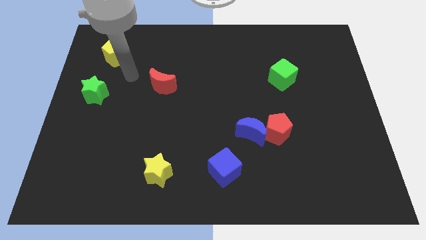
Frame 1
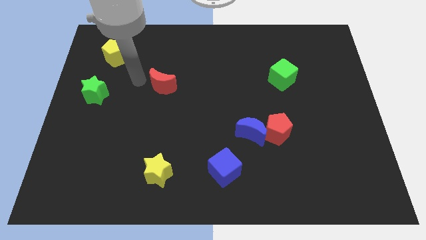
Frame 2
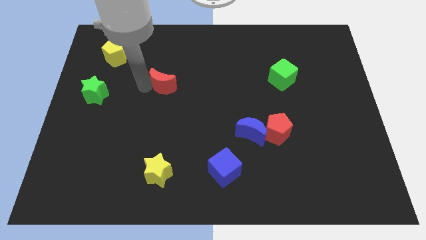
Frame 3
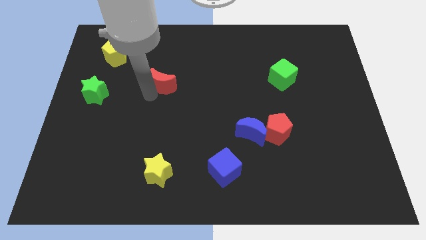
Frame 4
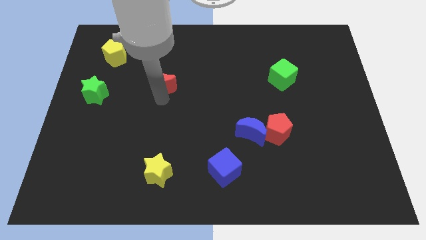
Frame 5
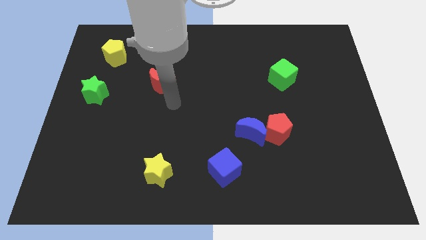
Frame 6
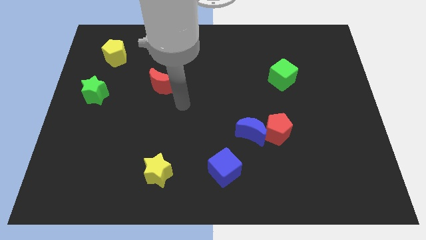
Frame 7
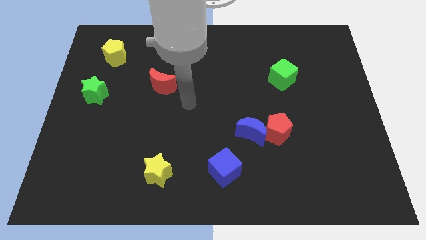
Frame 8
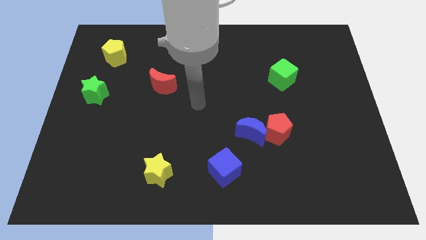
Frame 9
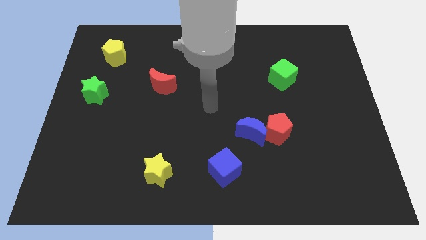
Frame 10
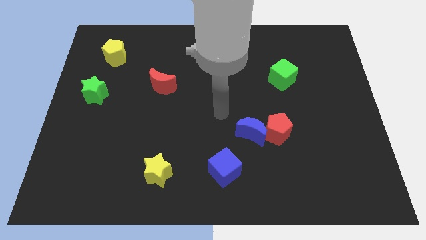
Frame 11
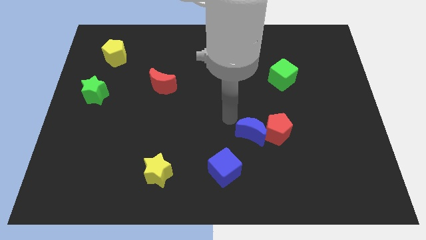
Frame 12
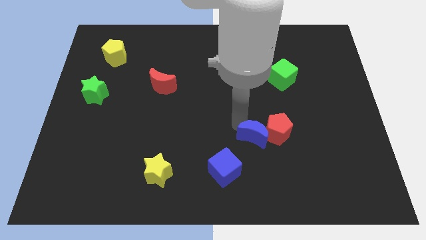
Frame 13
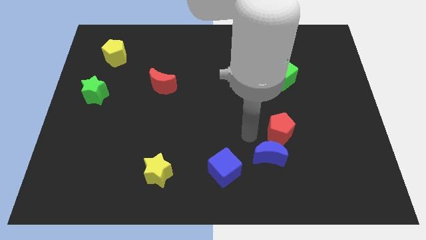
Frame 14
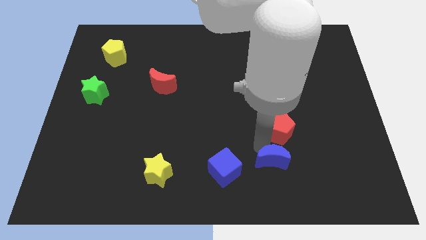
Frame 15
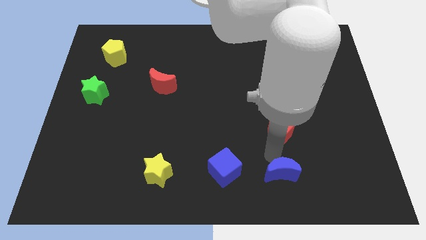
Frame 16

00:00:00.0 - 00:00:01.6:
separate the red pentagon from the blue moon

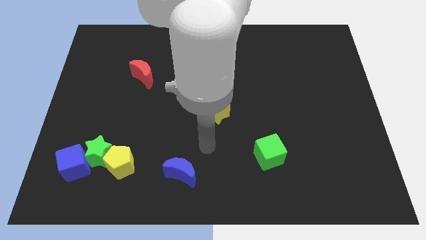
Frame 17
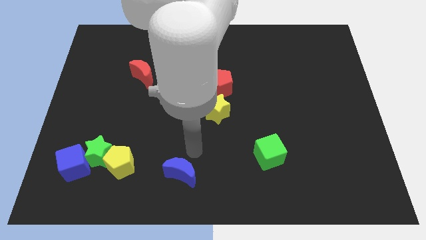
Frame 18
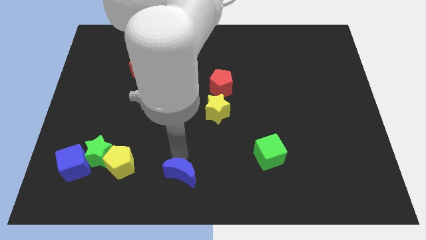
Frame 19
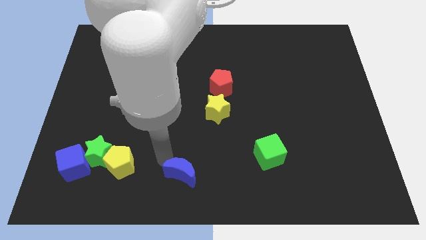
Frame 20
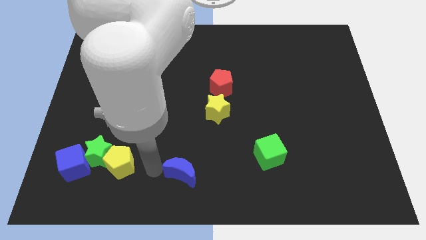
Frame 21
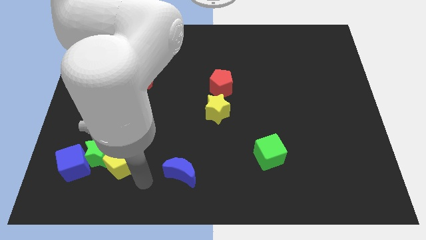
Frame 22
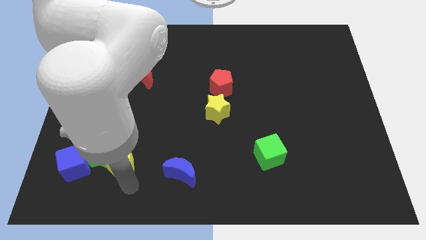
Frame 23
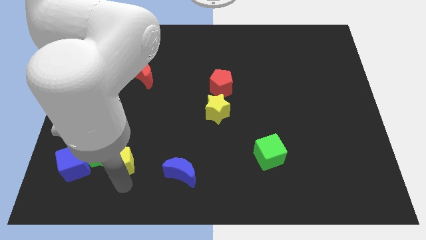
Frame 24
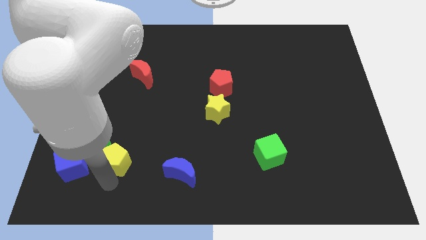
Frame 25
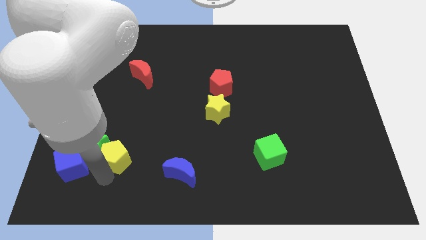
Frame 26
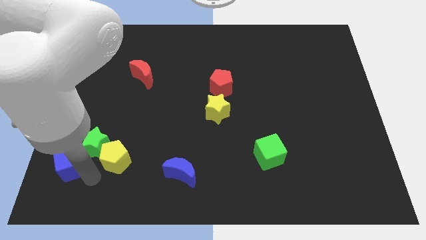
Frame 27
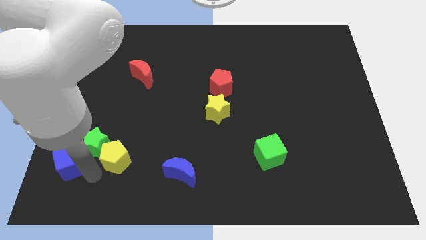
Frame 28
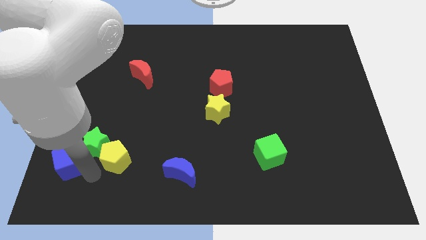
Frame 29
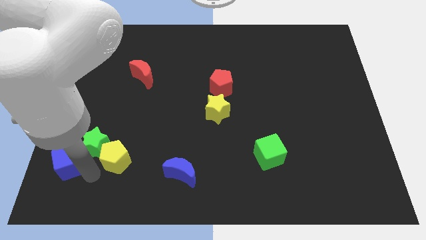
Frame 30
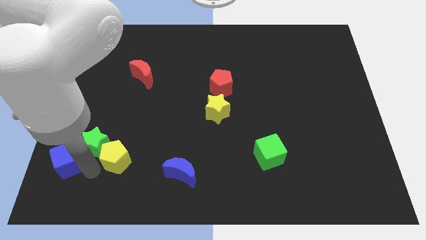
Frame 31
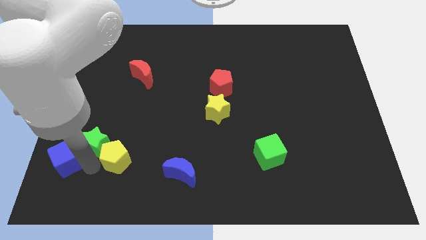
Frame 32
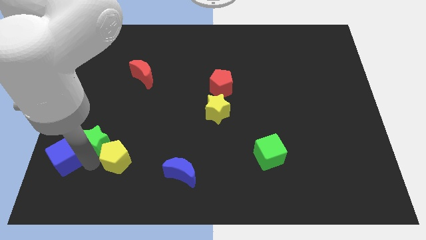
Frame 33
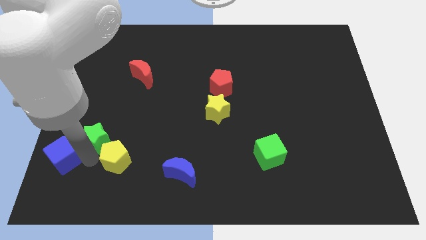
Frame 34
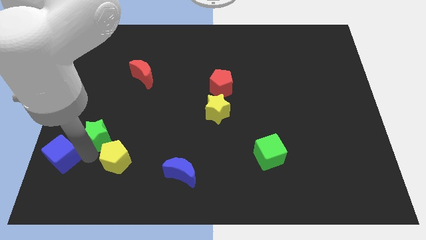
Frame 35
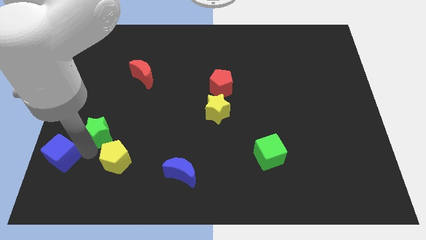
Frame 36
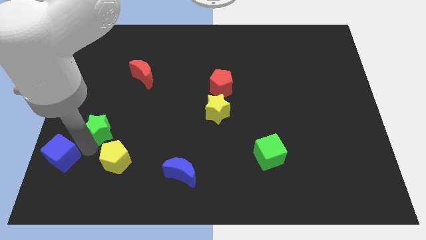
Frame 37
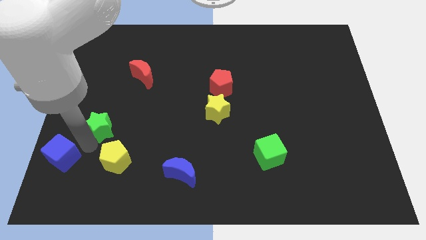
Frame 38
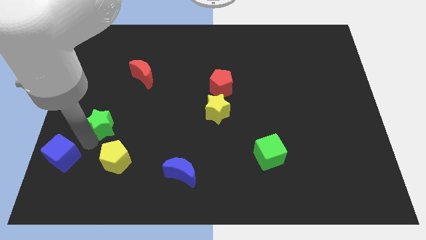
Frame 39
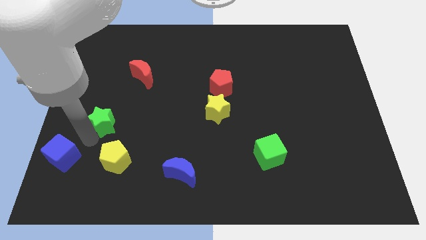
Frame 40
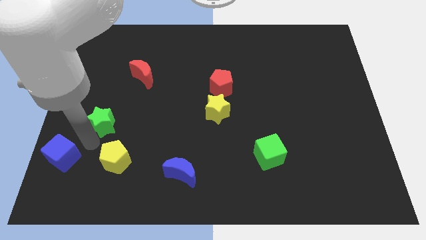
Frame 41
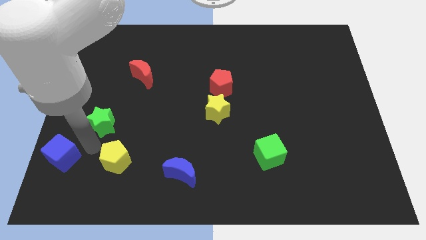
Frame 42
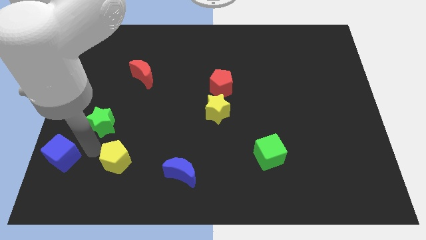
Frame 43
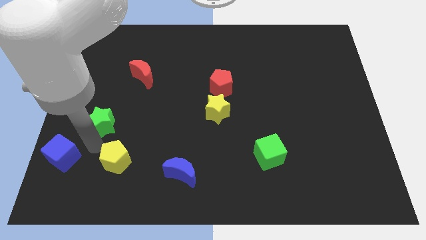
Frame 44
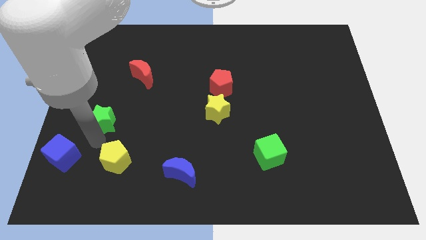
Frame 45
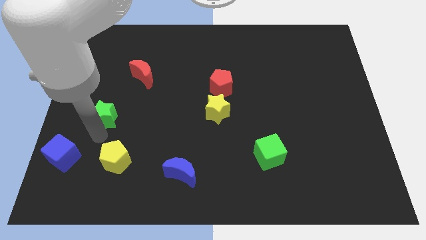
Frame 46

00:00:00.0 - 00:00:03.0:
separate the green star from the yellow pentagon and blue cube

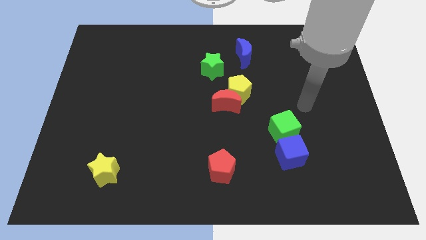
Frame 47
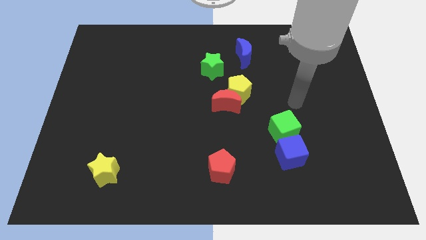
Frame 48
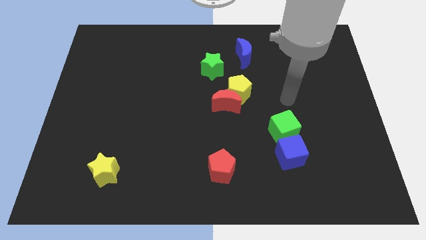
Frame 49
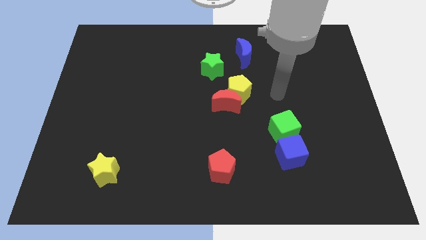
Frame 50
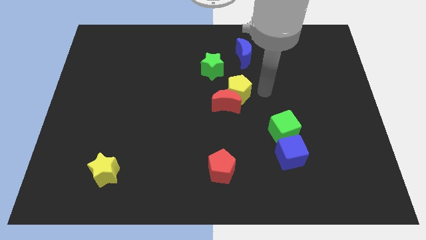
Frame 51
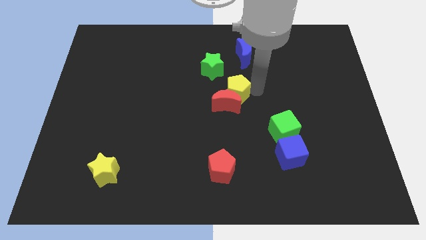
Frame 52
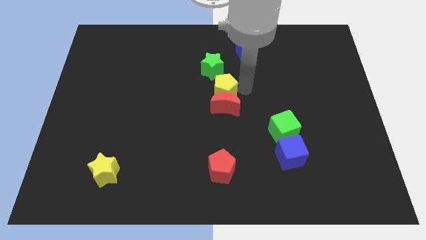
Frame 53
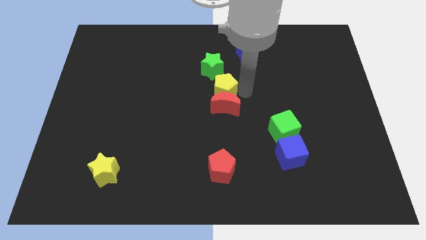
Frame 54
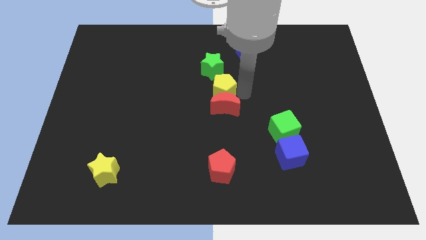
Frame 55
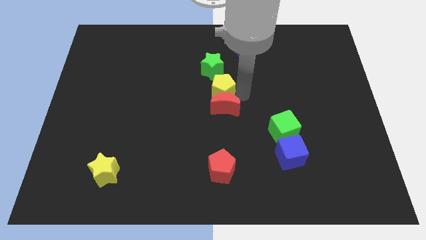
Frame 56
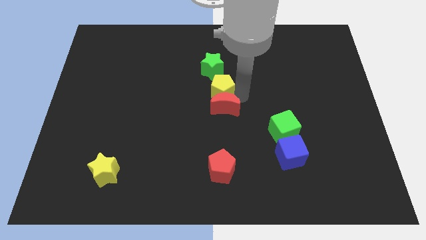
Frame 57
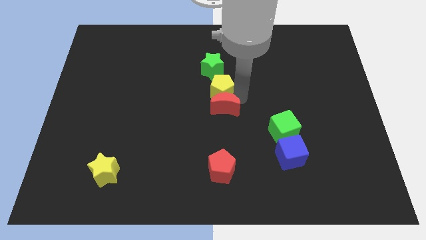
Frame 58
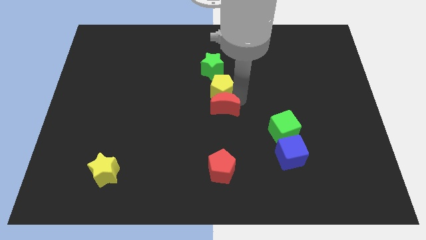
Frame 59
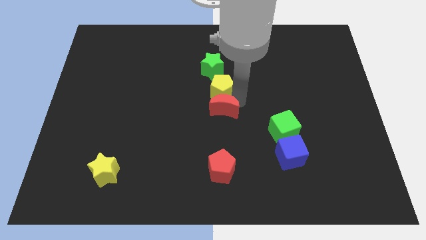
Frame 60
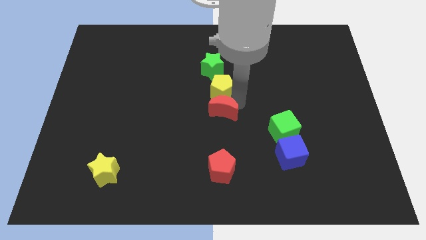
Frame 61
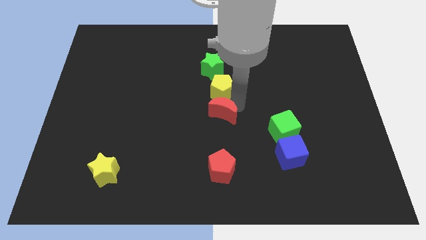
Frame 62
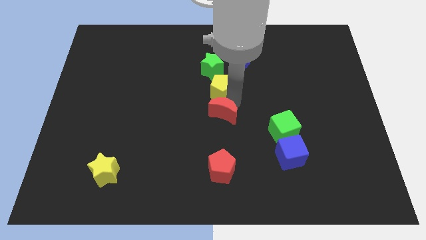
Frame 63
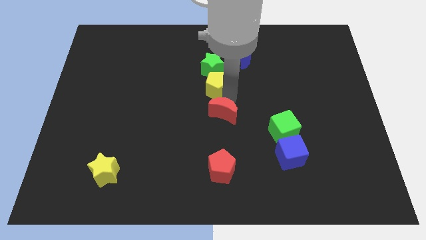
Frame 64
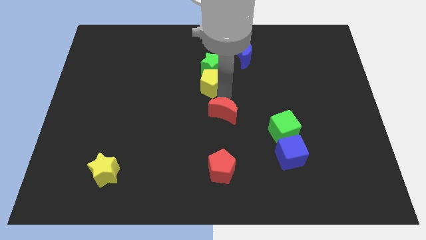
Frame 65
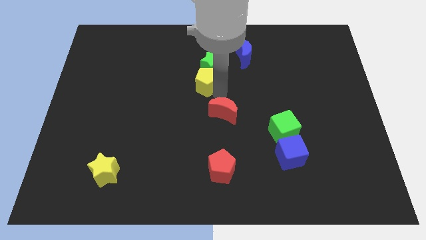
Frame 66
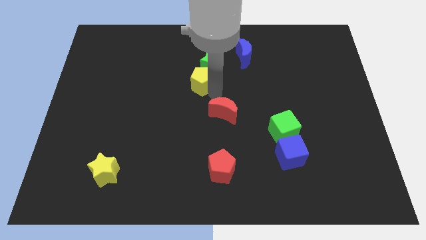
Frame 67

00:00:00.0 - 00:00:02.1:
pull the red moon apart from the yellow pentagon

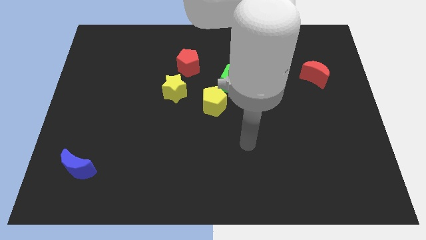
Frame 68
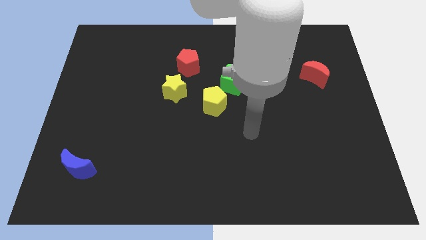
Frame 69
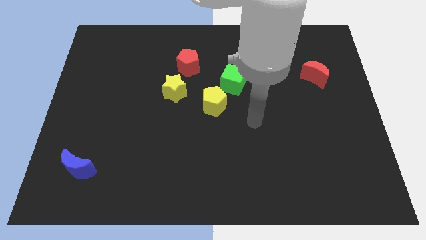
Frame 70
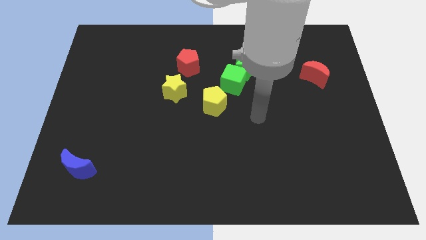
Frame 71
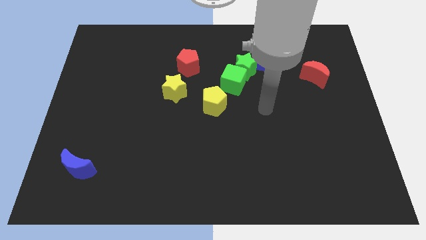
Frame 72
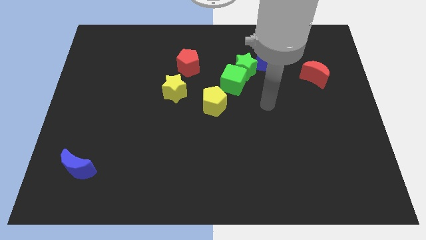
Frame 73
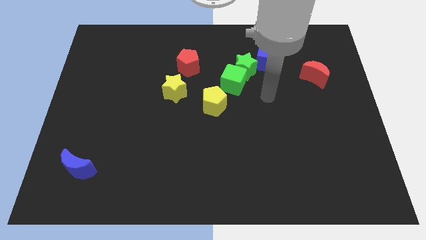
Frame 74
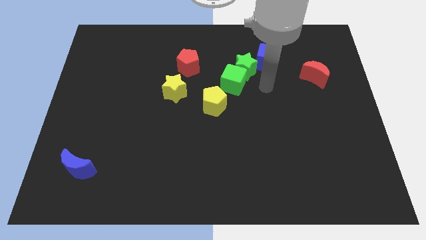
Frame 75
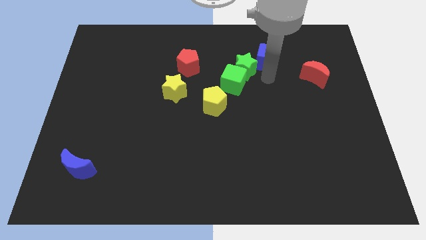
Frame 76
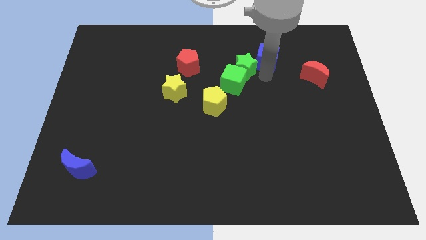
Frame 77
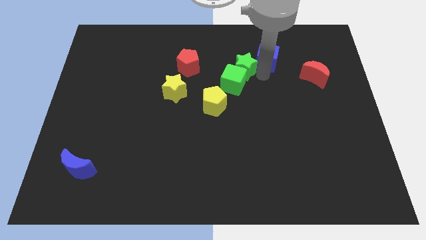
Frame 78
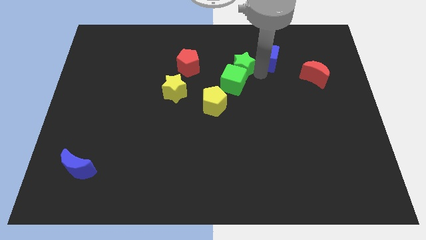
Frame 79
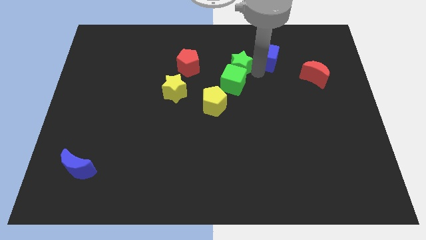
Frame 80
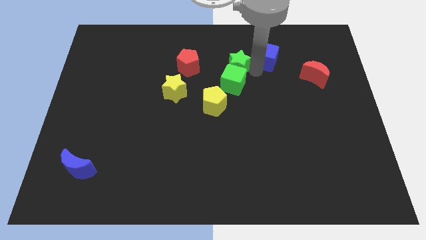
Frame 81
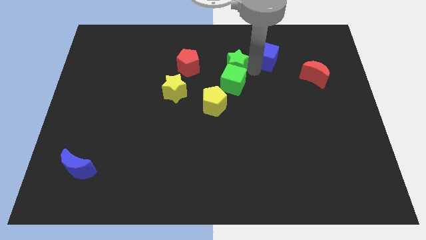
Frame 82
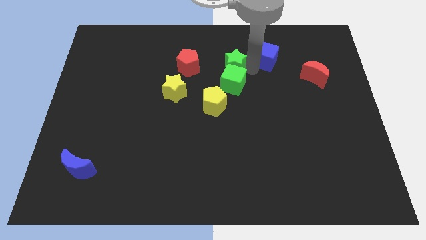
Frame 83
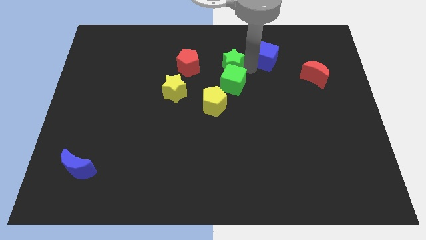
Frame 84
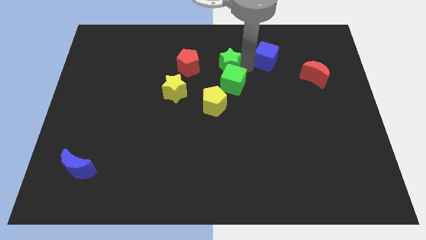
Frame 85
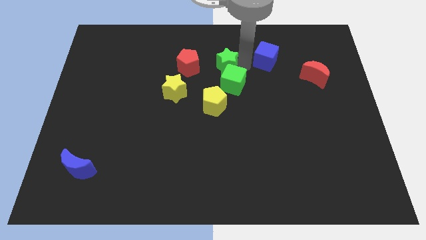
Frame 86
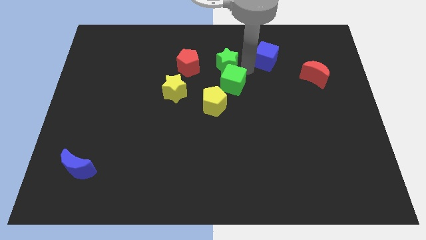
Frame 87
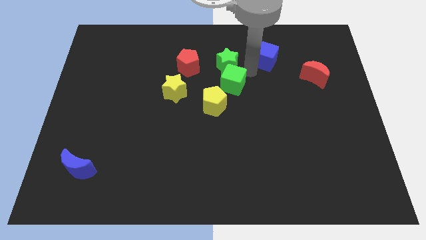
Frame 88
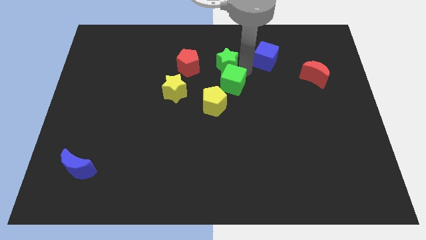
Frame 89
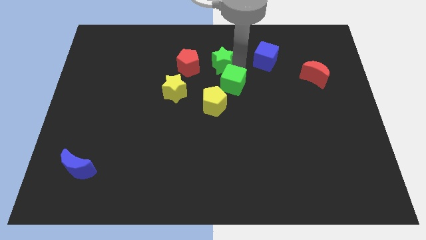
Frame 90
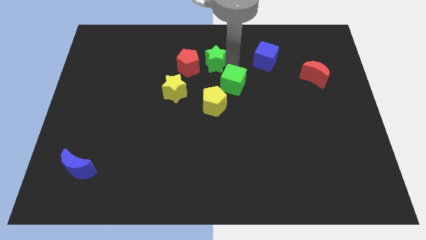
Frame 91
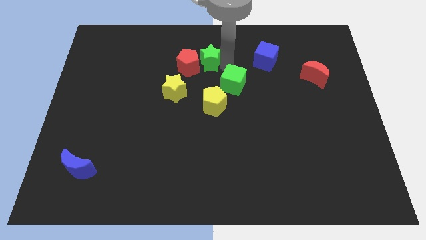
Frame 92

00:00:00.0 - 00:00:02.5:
pull the green star apart from the green cube and blue cube

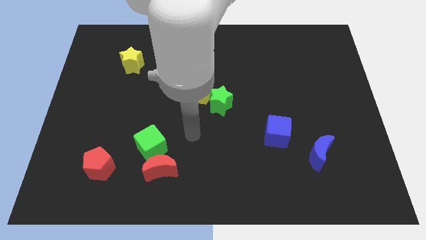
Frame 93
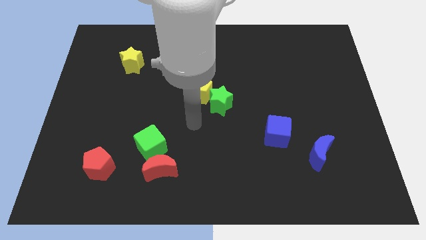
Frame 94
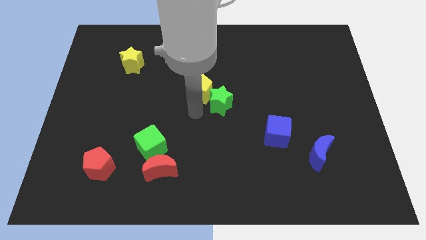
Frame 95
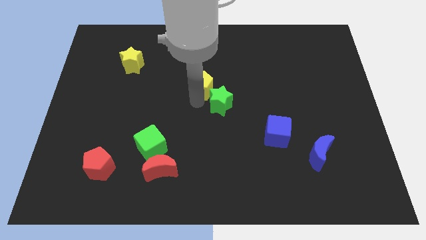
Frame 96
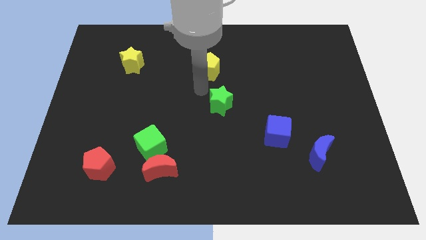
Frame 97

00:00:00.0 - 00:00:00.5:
move the green star away from the yellow pentagon
